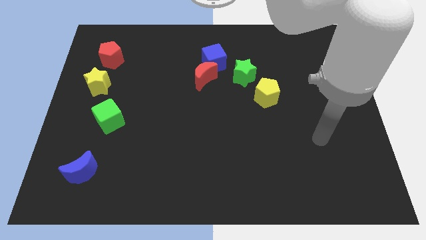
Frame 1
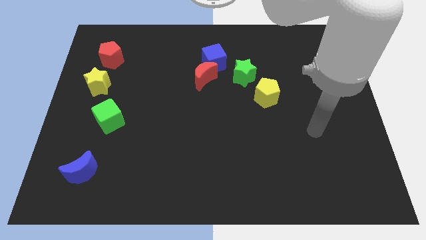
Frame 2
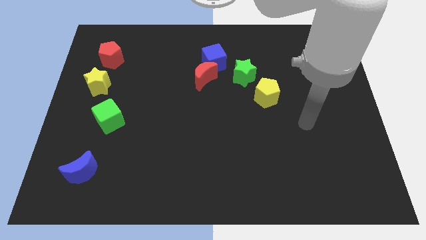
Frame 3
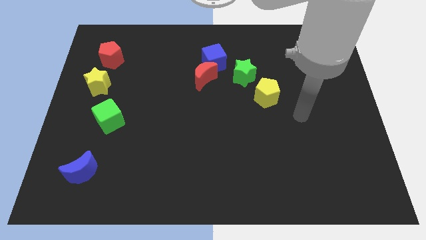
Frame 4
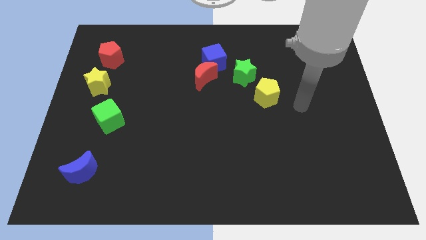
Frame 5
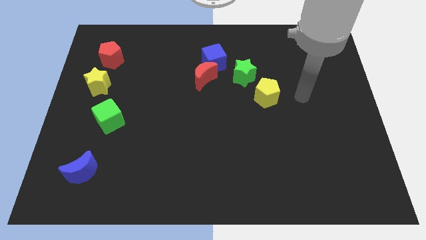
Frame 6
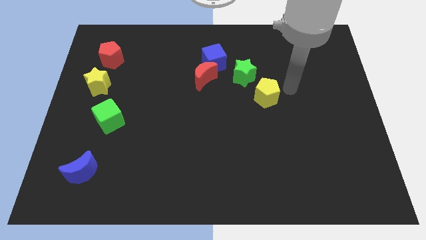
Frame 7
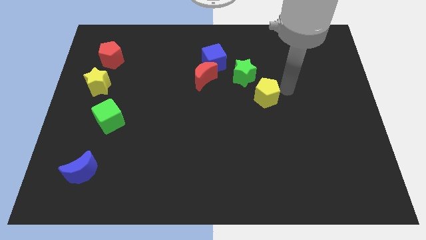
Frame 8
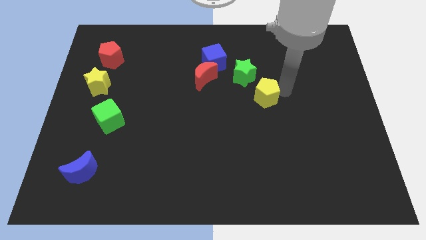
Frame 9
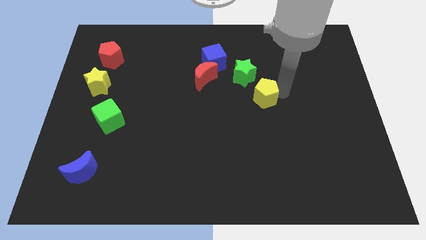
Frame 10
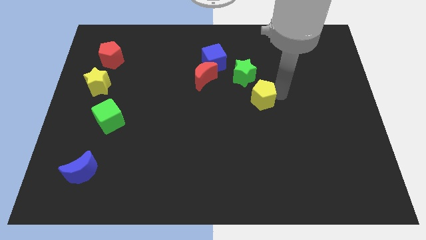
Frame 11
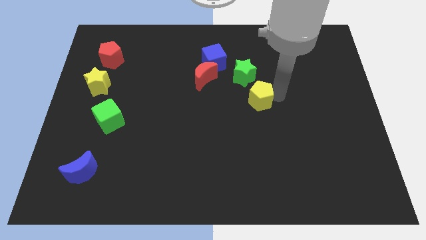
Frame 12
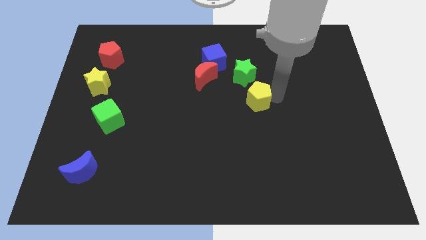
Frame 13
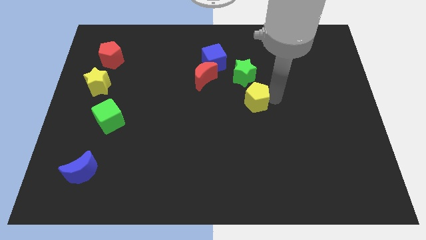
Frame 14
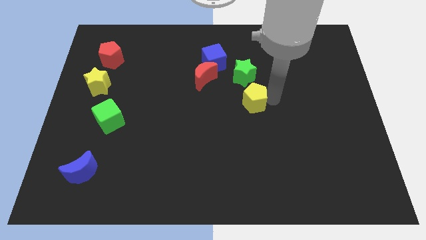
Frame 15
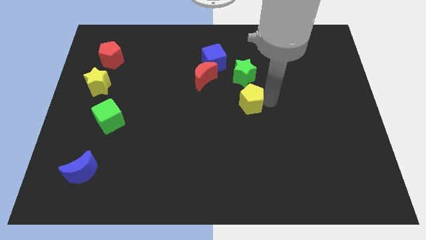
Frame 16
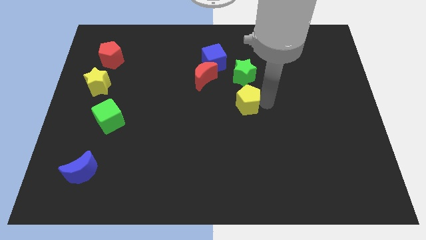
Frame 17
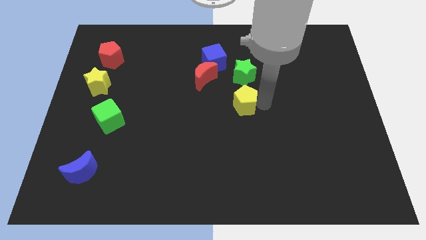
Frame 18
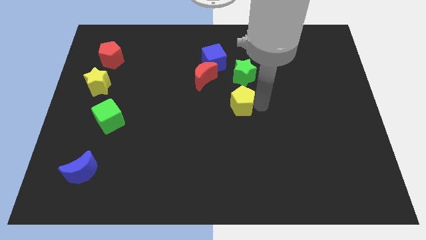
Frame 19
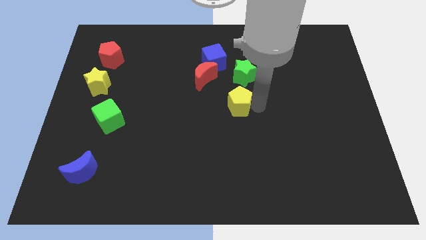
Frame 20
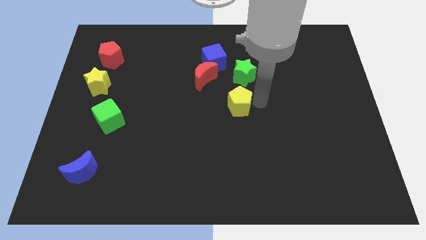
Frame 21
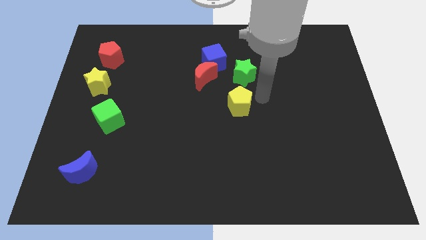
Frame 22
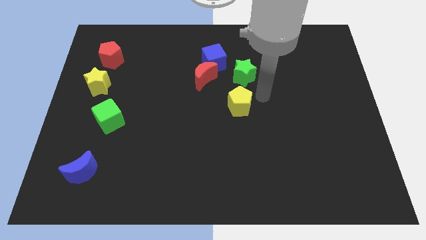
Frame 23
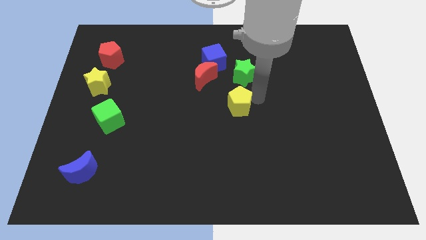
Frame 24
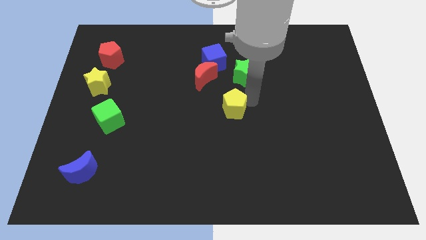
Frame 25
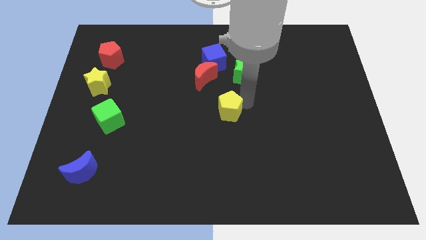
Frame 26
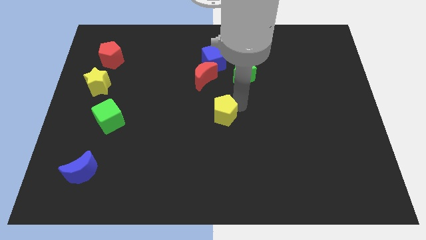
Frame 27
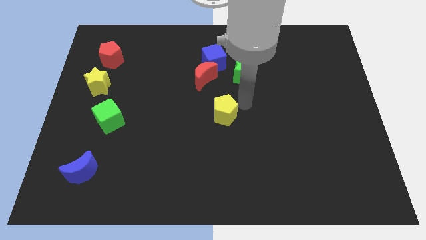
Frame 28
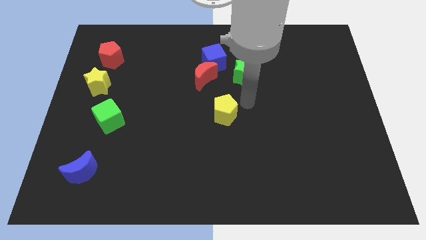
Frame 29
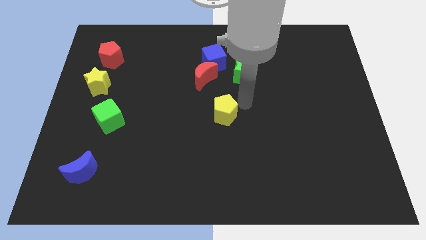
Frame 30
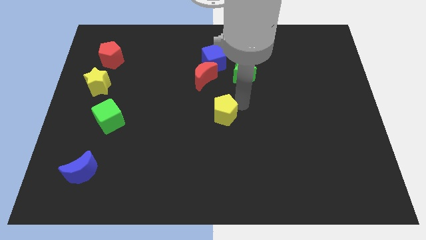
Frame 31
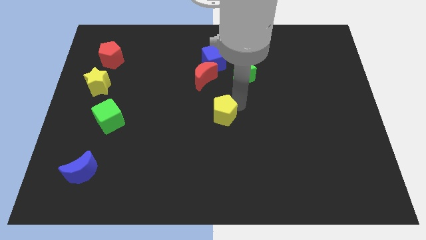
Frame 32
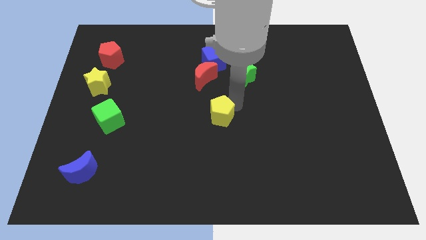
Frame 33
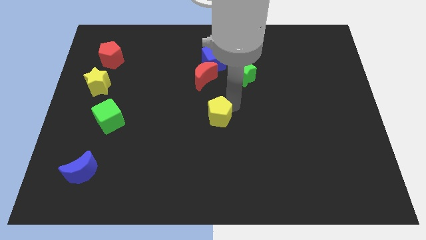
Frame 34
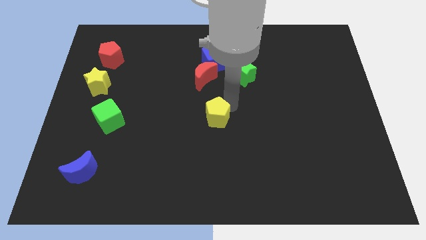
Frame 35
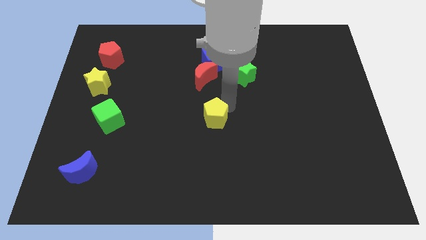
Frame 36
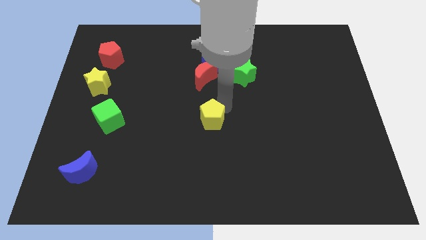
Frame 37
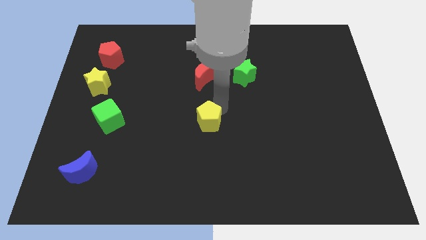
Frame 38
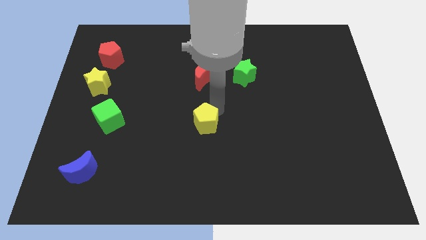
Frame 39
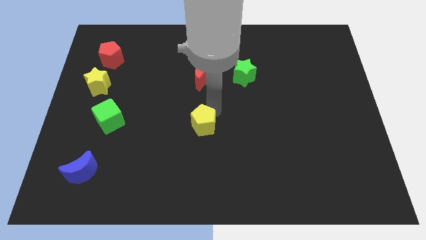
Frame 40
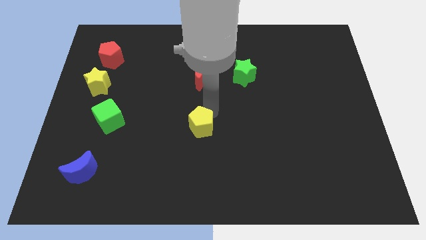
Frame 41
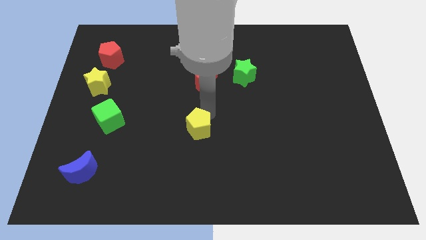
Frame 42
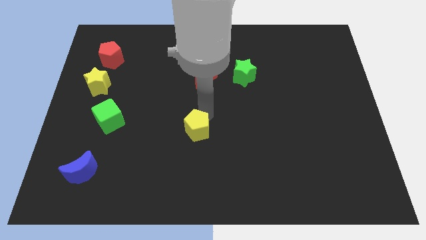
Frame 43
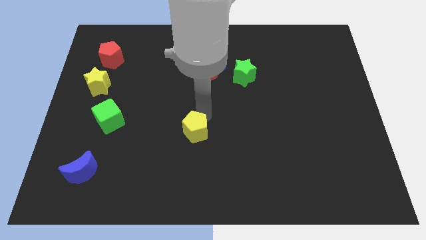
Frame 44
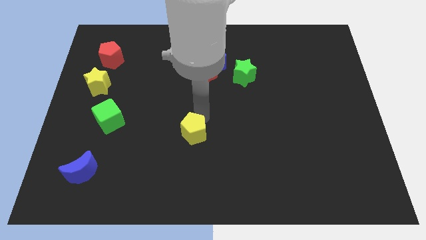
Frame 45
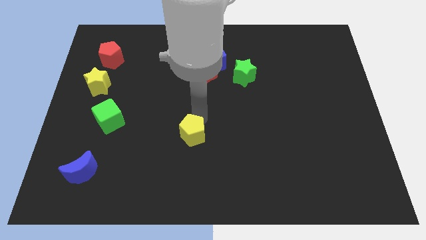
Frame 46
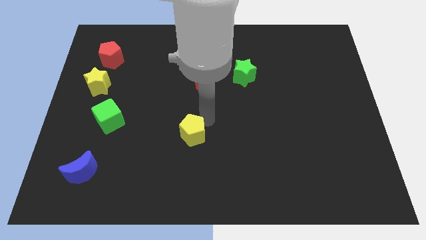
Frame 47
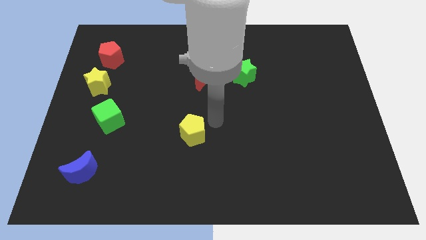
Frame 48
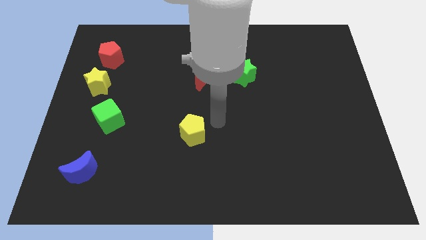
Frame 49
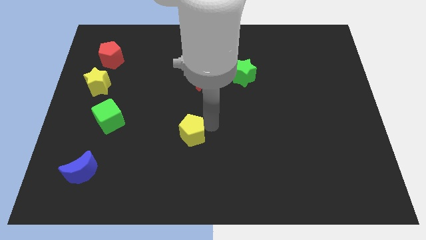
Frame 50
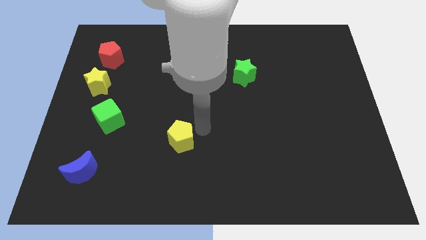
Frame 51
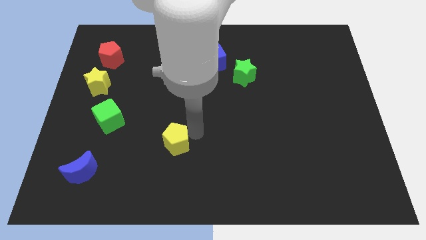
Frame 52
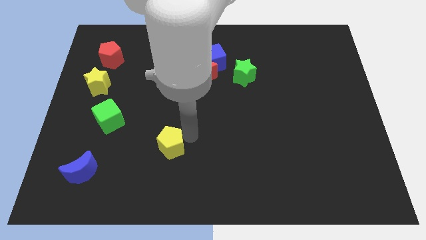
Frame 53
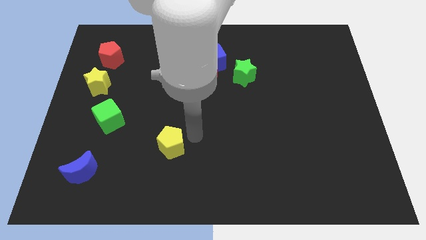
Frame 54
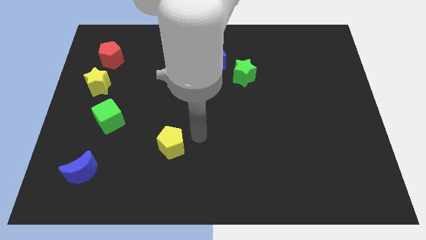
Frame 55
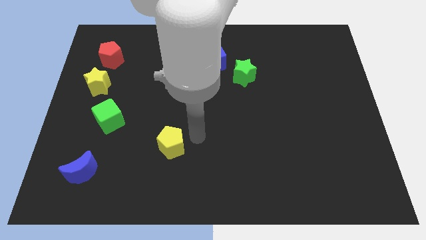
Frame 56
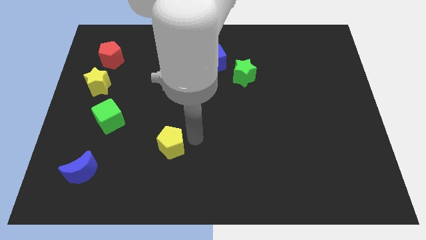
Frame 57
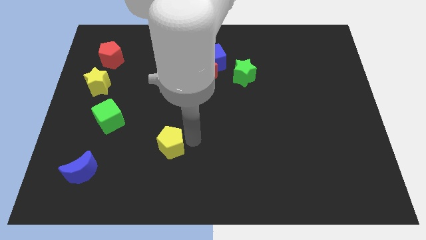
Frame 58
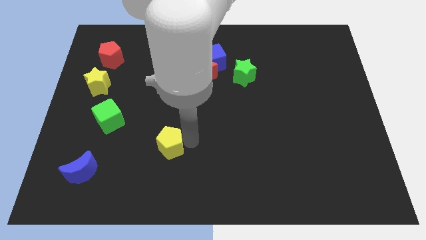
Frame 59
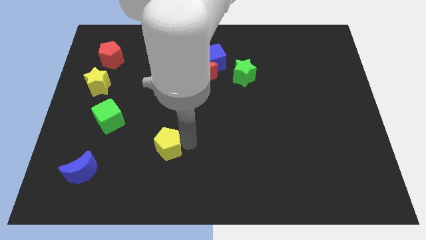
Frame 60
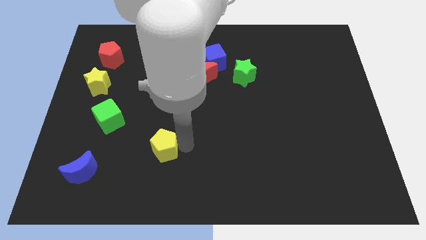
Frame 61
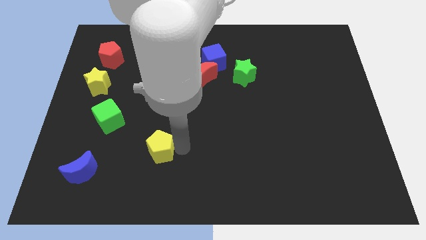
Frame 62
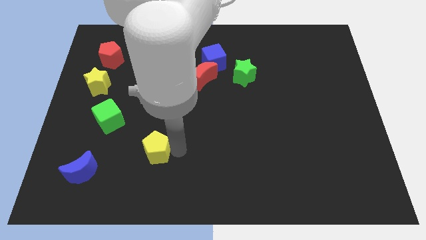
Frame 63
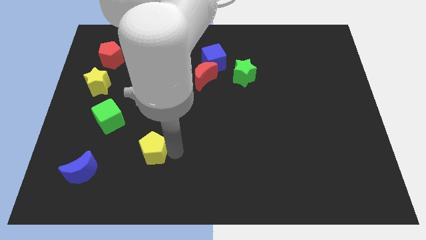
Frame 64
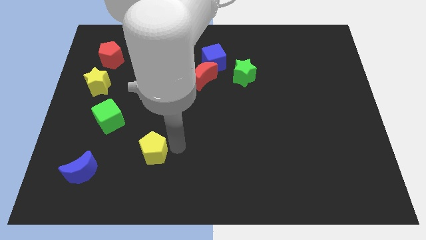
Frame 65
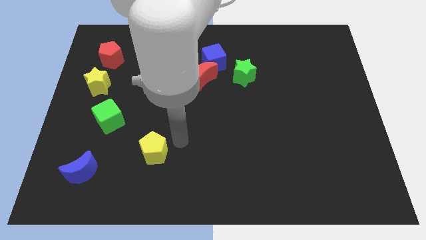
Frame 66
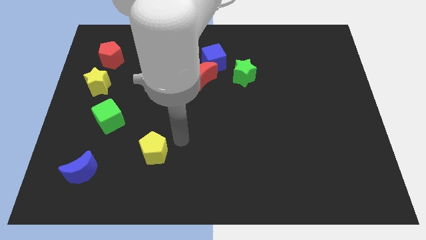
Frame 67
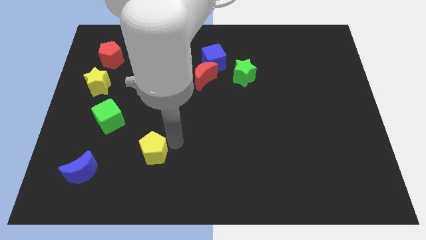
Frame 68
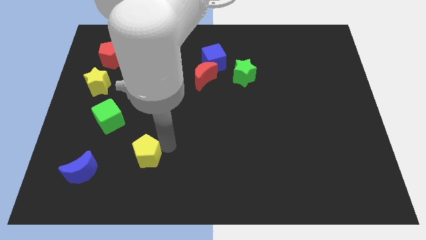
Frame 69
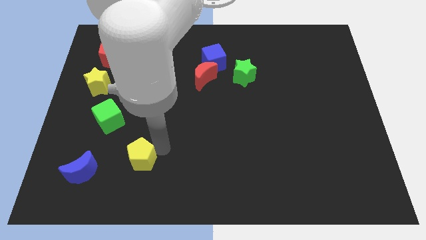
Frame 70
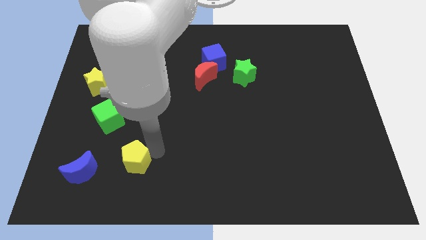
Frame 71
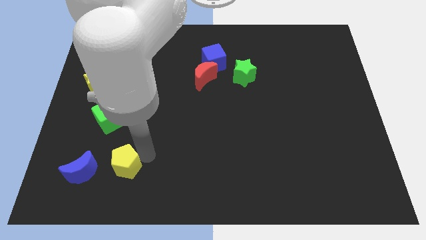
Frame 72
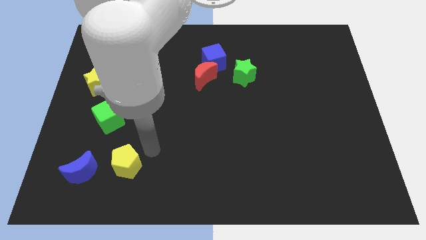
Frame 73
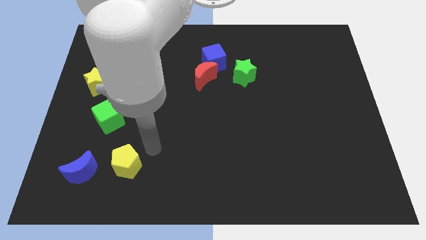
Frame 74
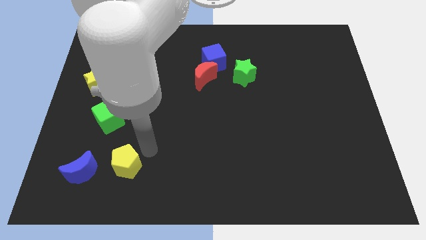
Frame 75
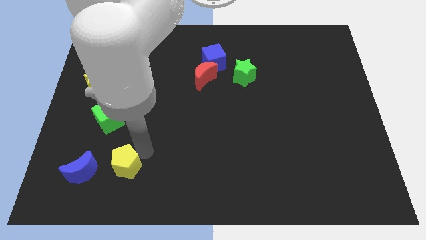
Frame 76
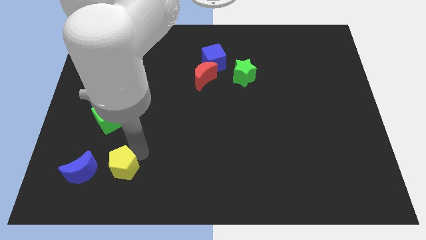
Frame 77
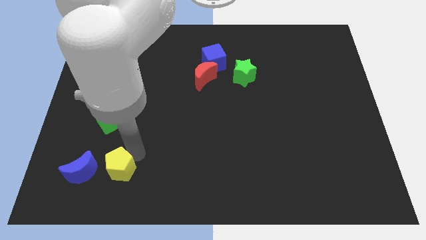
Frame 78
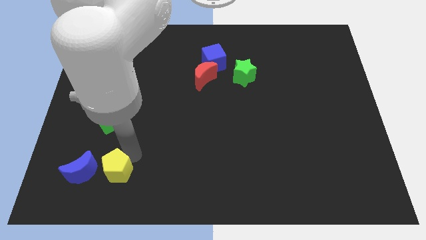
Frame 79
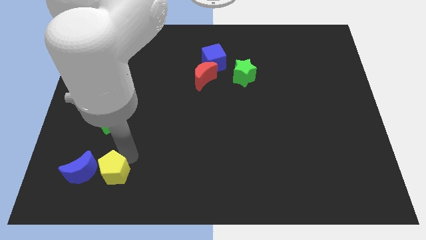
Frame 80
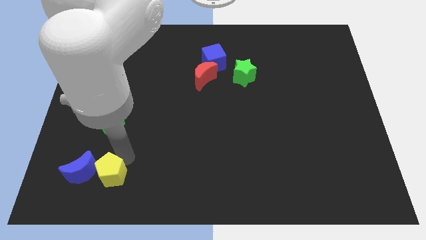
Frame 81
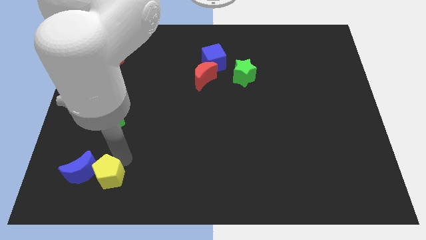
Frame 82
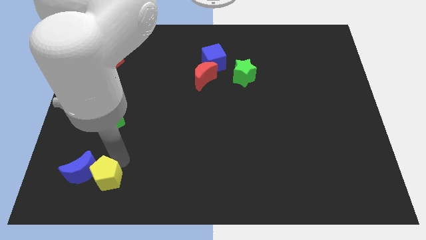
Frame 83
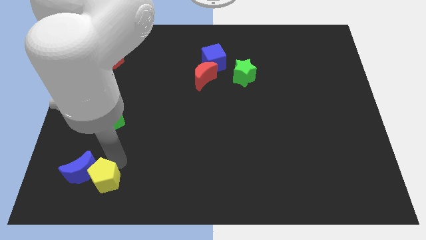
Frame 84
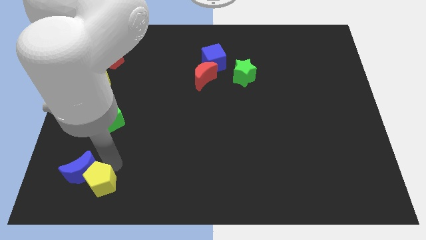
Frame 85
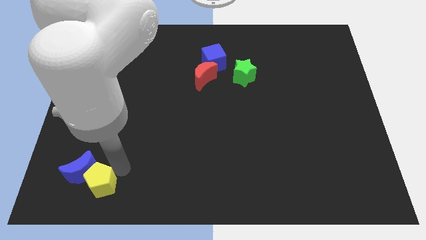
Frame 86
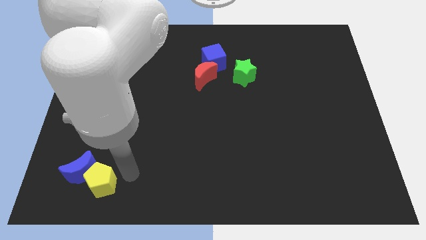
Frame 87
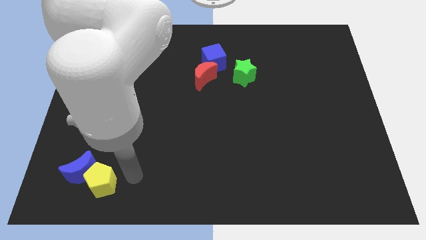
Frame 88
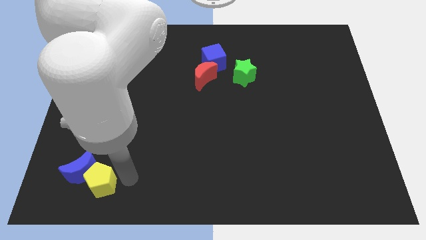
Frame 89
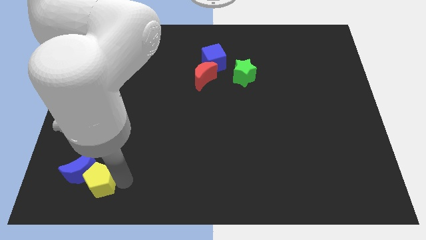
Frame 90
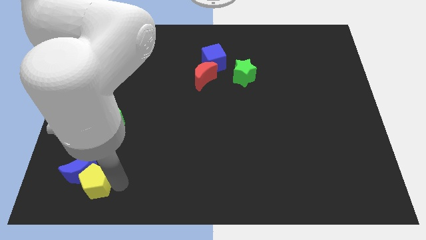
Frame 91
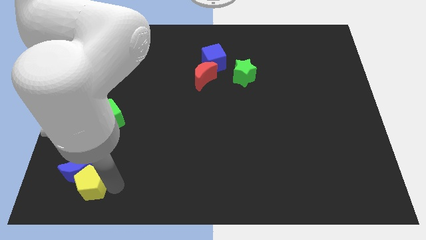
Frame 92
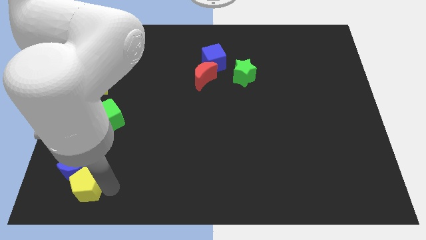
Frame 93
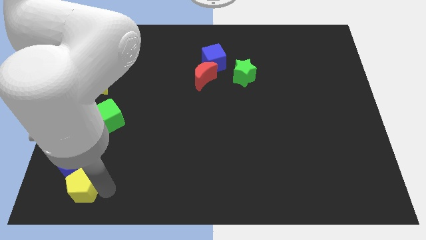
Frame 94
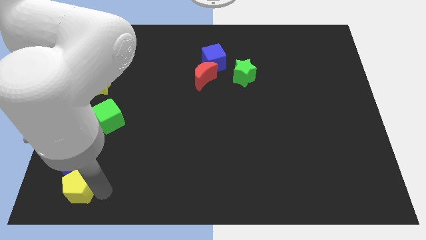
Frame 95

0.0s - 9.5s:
slide the yellow pentagon to the lower left corner
